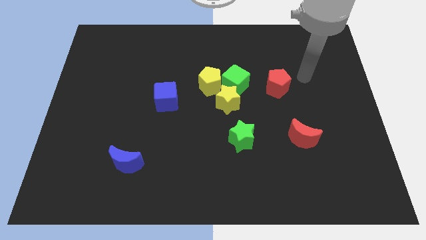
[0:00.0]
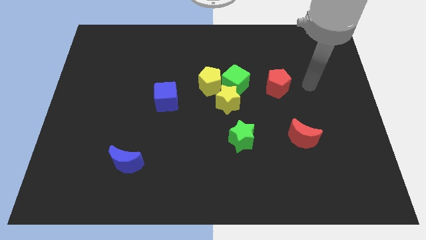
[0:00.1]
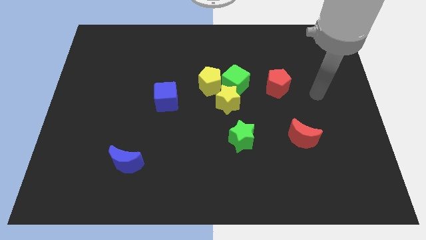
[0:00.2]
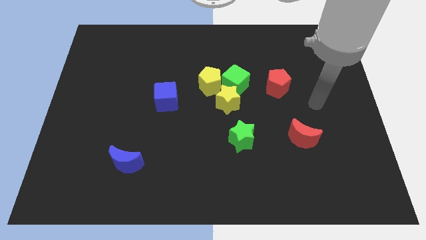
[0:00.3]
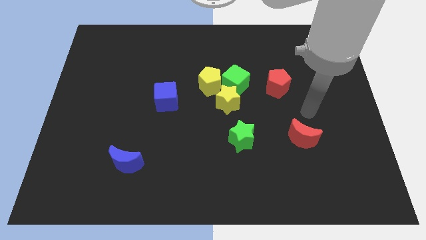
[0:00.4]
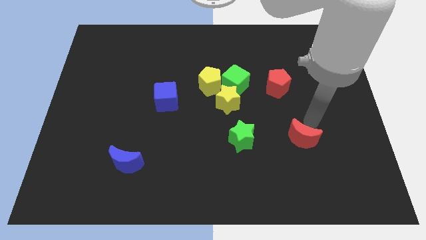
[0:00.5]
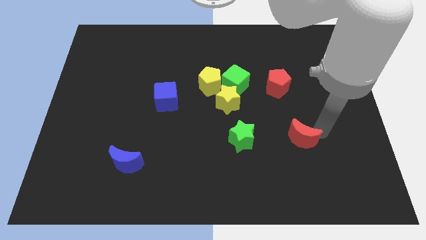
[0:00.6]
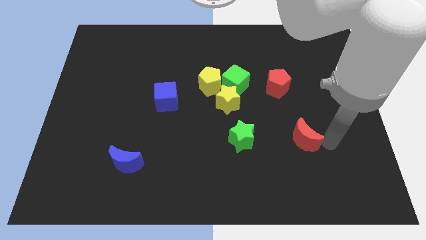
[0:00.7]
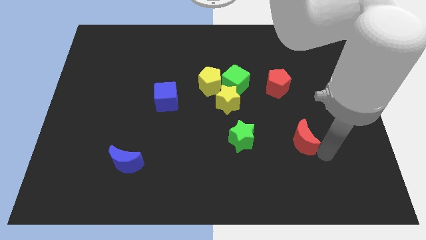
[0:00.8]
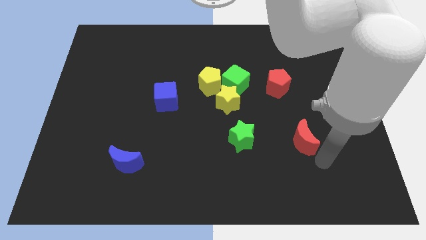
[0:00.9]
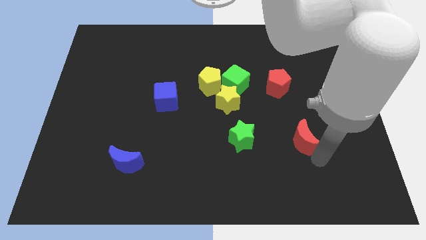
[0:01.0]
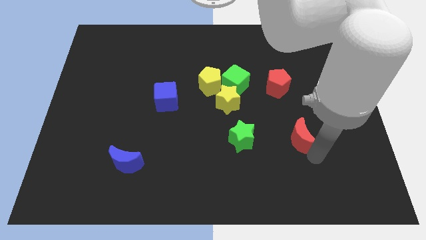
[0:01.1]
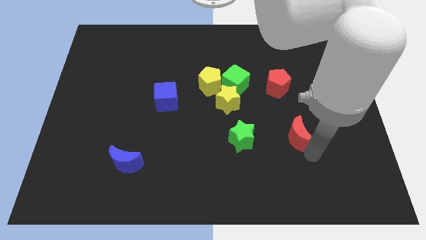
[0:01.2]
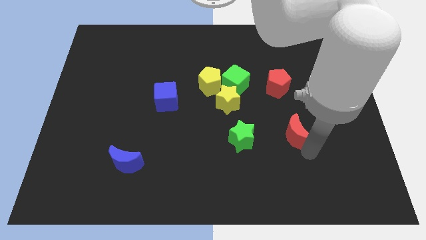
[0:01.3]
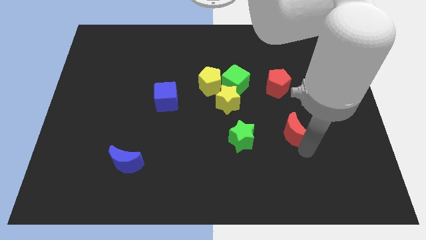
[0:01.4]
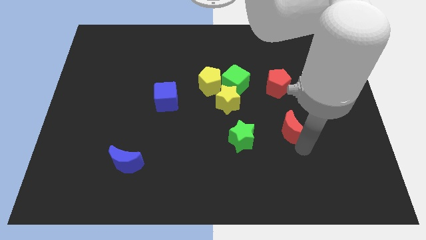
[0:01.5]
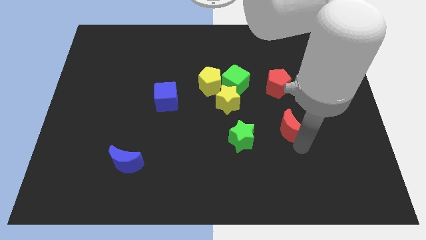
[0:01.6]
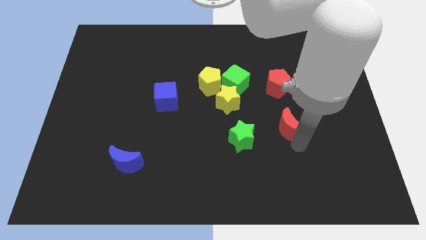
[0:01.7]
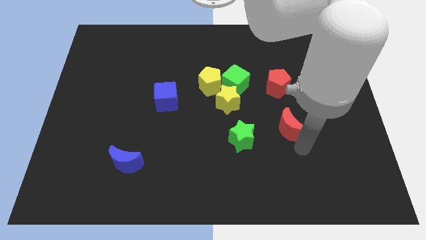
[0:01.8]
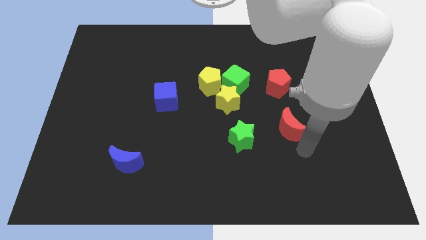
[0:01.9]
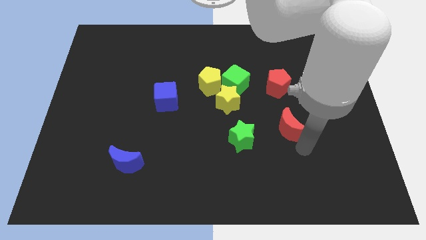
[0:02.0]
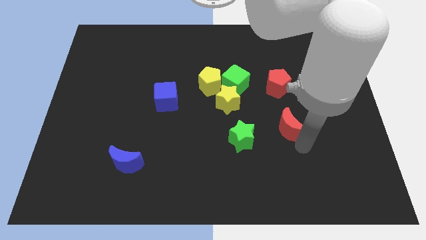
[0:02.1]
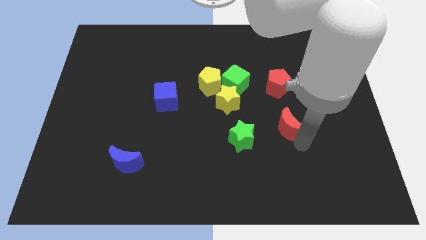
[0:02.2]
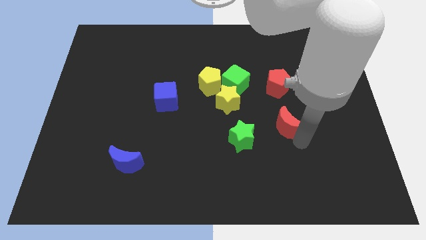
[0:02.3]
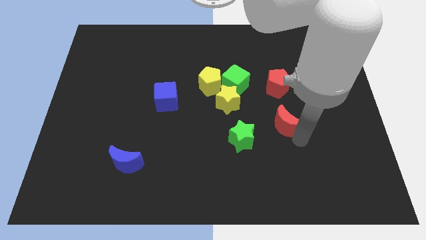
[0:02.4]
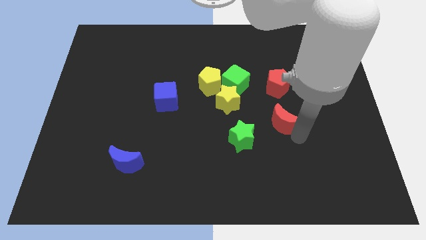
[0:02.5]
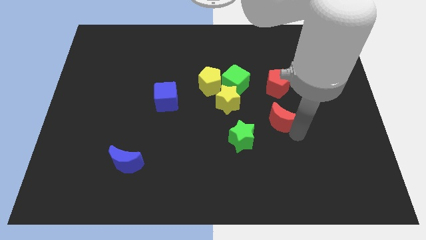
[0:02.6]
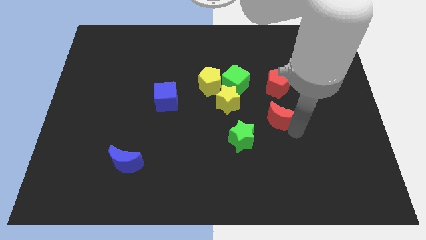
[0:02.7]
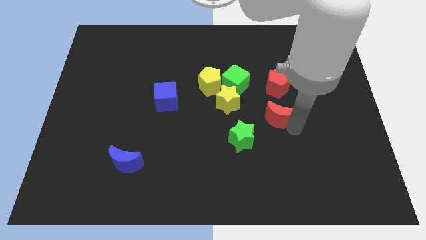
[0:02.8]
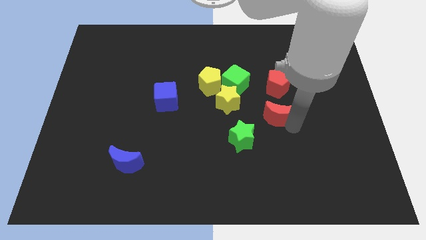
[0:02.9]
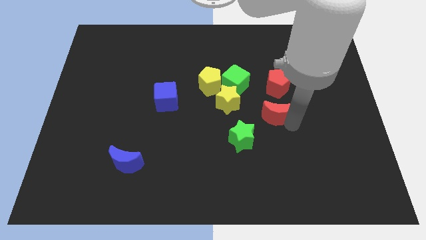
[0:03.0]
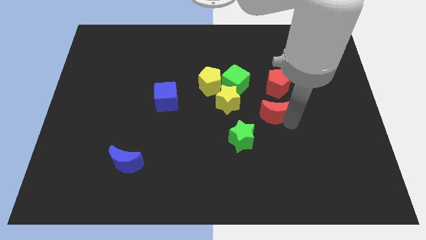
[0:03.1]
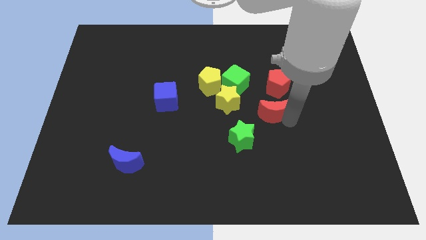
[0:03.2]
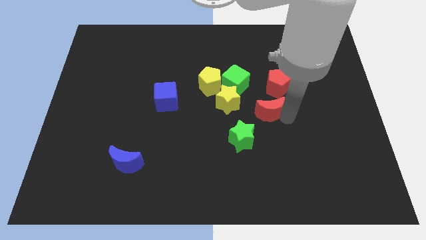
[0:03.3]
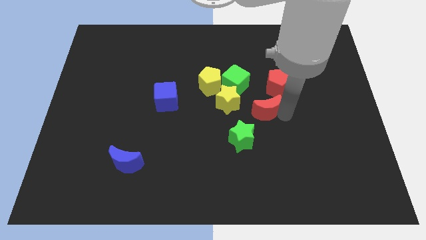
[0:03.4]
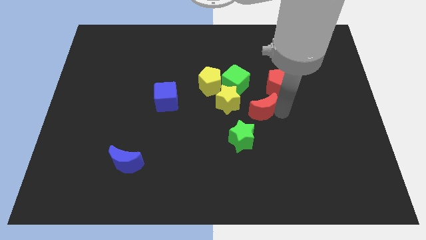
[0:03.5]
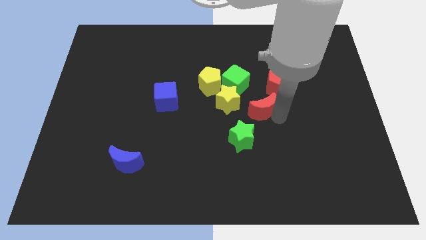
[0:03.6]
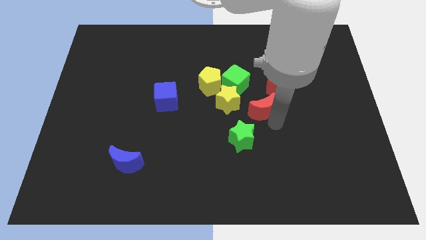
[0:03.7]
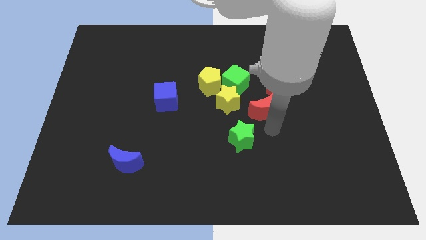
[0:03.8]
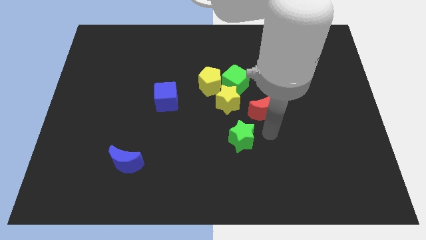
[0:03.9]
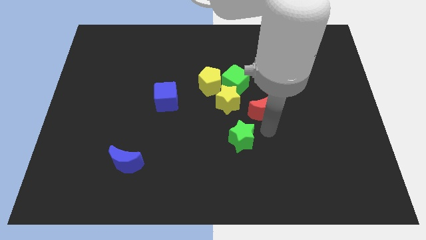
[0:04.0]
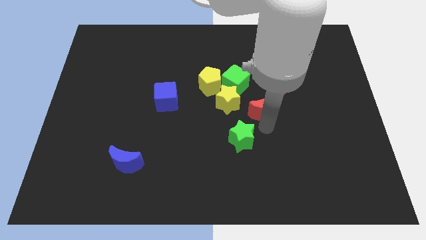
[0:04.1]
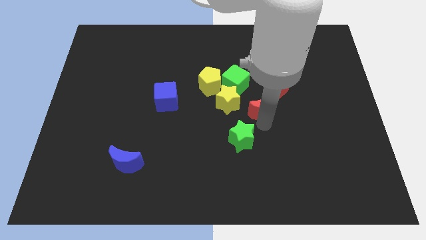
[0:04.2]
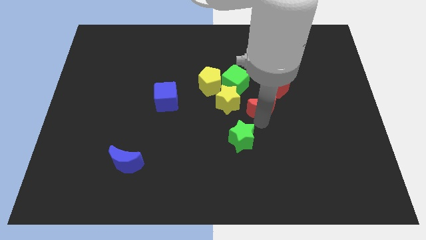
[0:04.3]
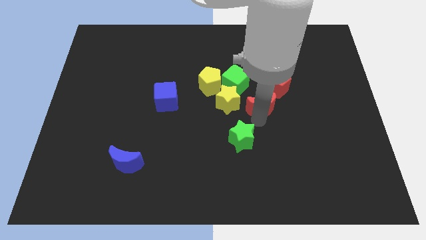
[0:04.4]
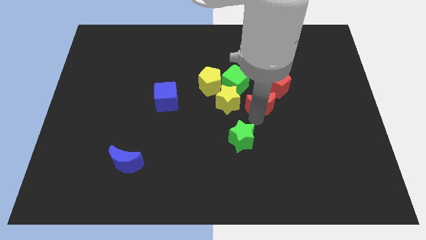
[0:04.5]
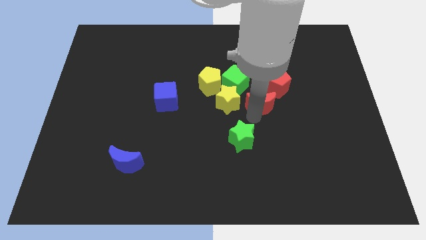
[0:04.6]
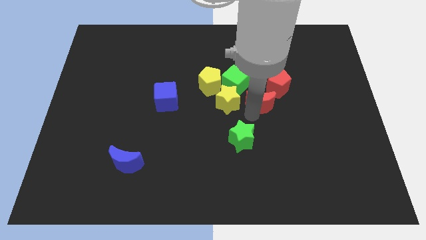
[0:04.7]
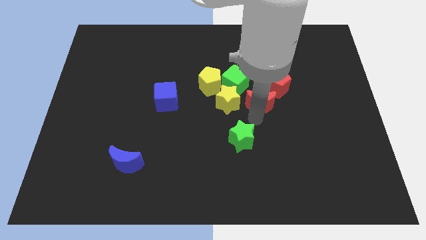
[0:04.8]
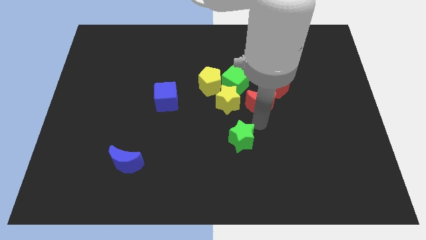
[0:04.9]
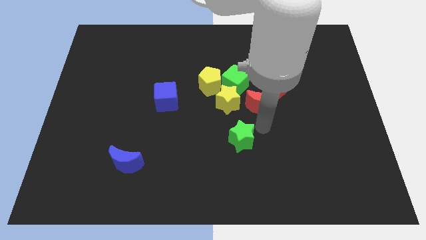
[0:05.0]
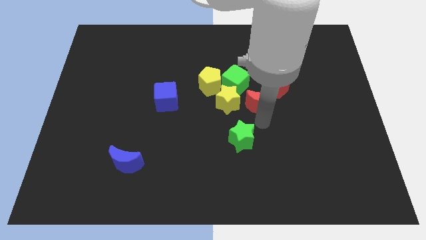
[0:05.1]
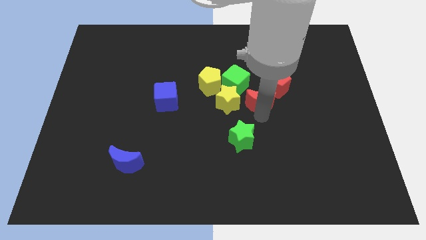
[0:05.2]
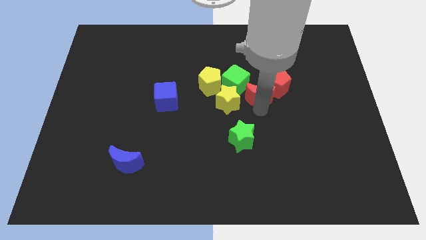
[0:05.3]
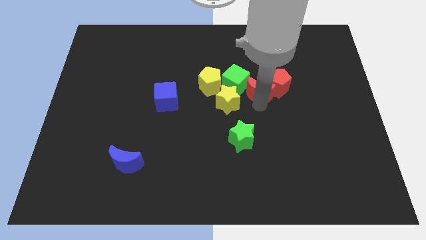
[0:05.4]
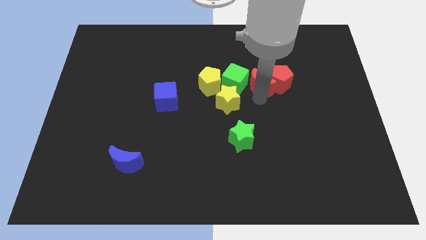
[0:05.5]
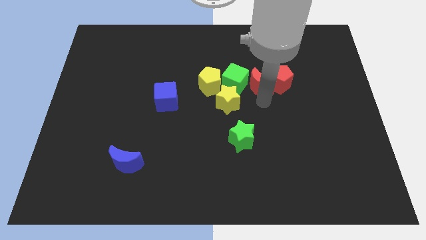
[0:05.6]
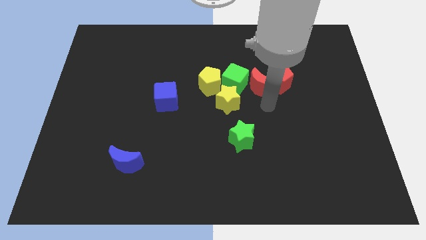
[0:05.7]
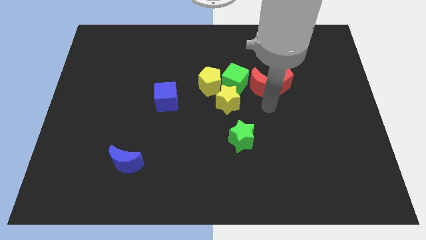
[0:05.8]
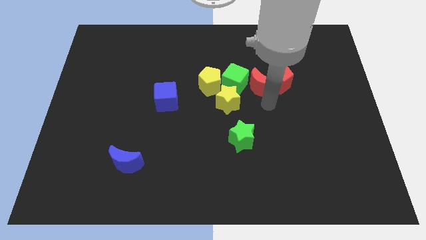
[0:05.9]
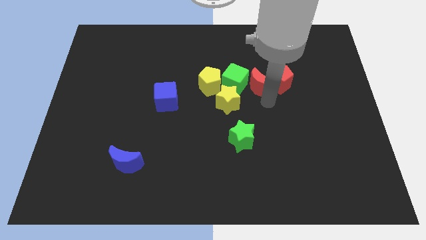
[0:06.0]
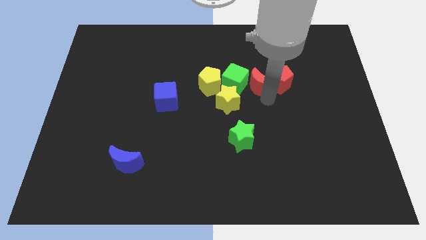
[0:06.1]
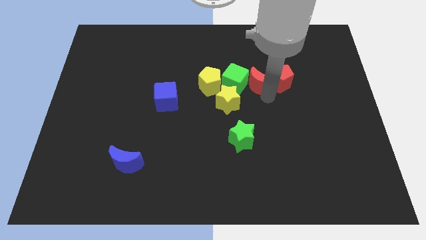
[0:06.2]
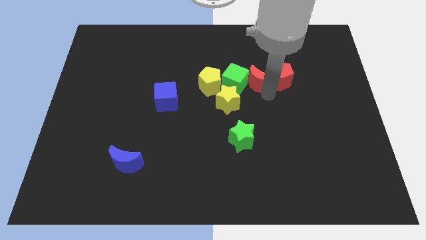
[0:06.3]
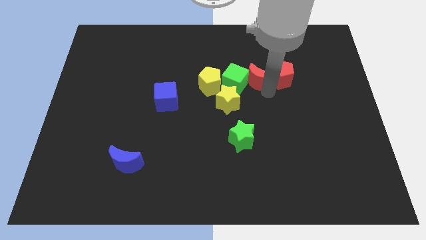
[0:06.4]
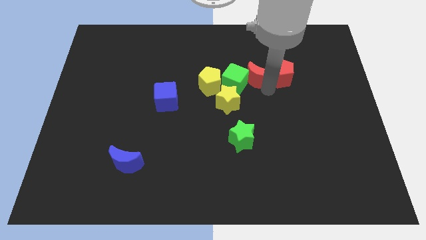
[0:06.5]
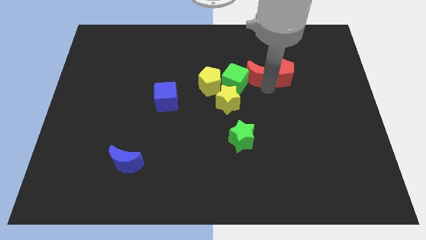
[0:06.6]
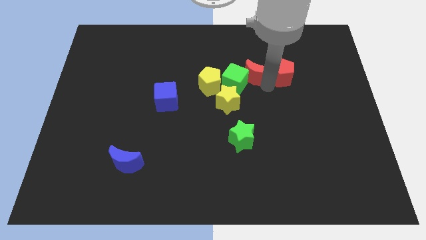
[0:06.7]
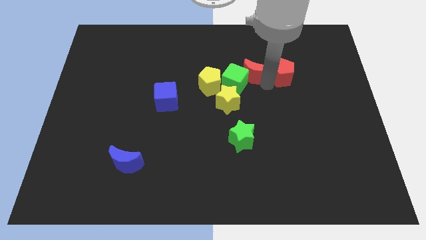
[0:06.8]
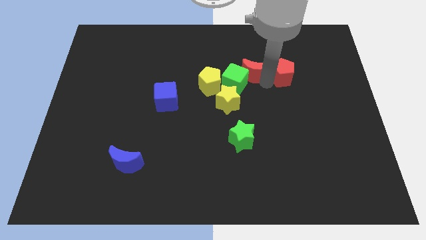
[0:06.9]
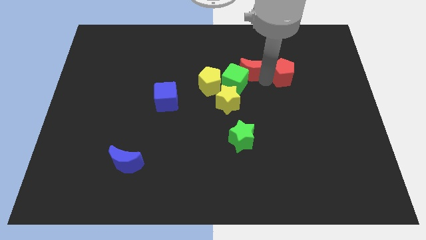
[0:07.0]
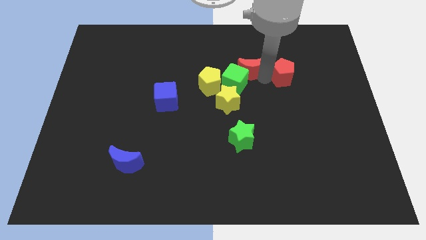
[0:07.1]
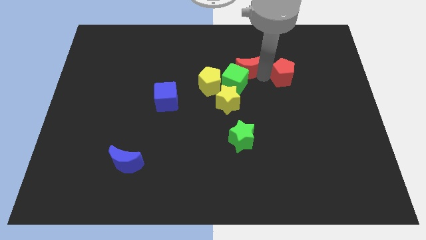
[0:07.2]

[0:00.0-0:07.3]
move the red moon up and to the left diagonally

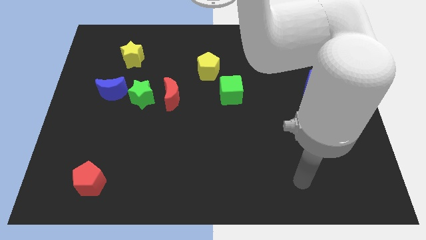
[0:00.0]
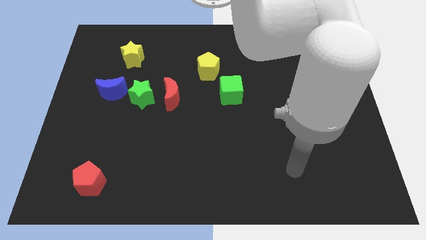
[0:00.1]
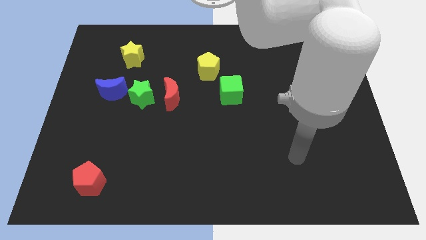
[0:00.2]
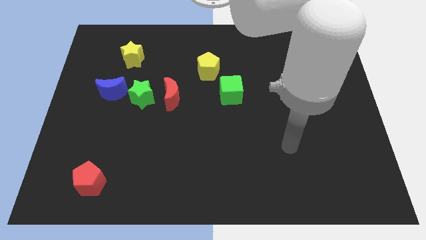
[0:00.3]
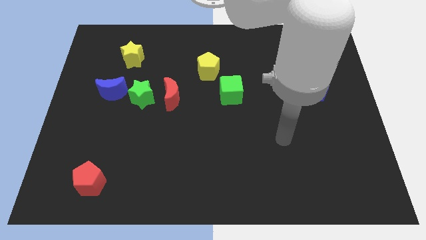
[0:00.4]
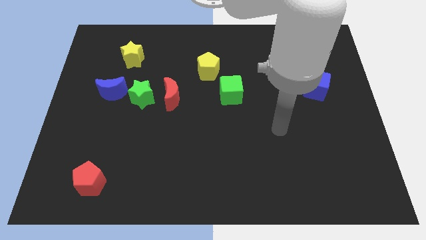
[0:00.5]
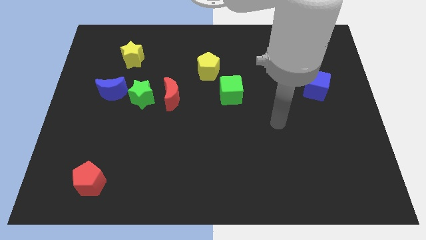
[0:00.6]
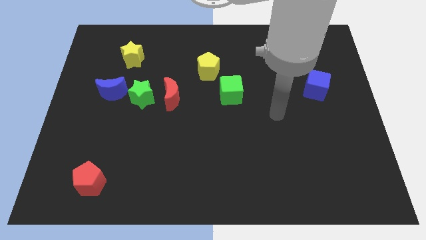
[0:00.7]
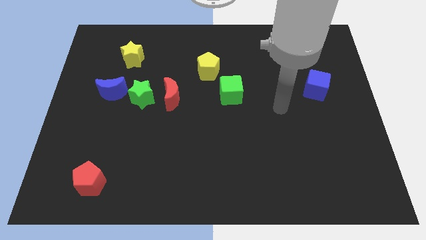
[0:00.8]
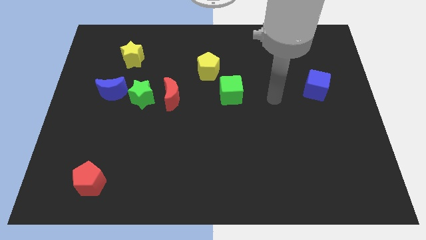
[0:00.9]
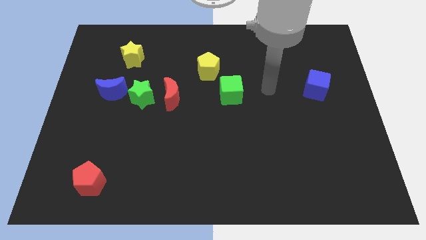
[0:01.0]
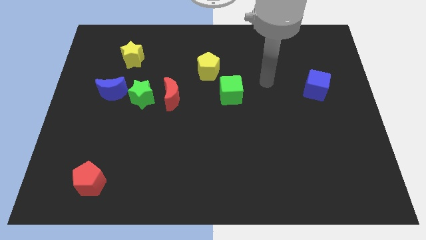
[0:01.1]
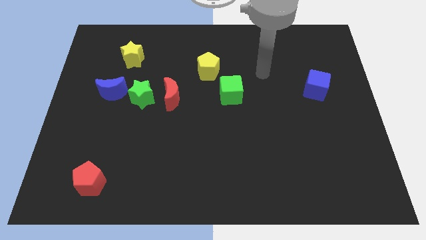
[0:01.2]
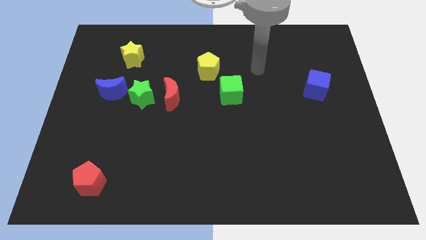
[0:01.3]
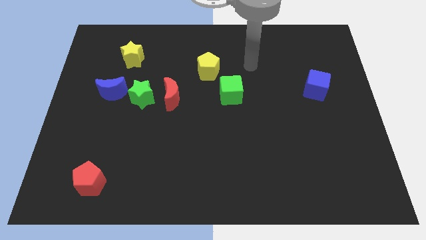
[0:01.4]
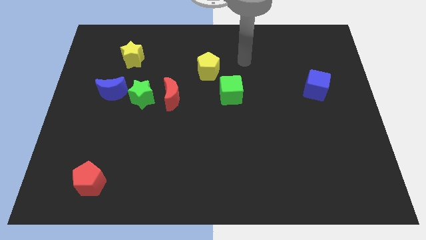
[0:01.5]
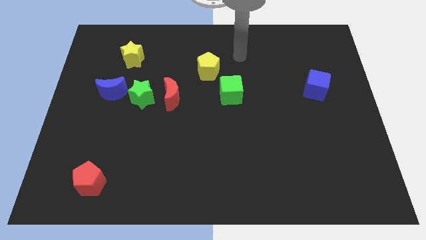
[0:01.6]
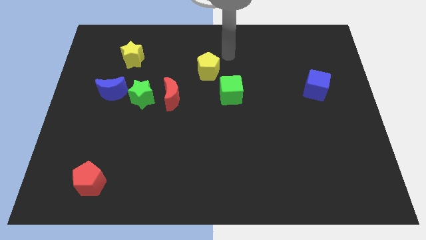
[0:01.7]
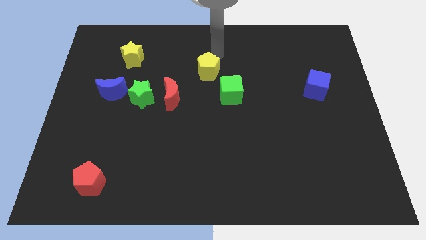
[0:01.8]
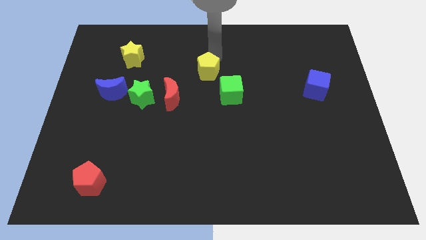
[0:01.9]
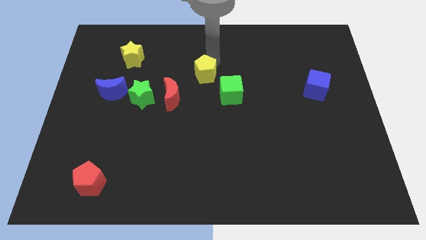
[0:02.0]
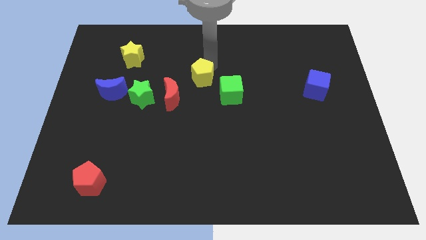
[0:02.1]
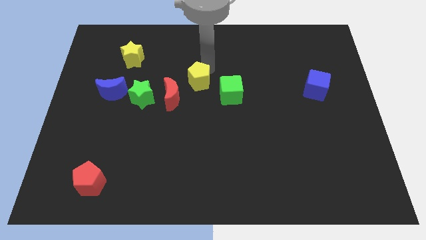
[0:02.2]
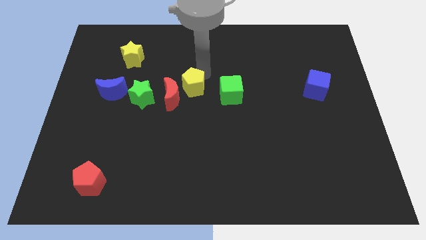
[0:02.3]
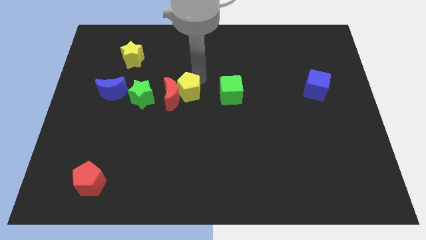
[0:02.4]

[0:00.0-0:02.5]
push the yellow pentagon a little bit downwards and then to the left
